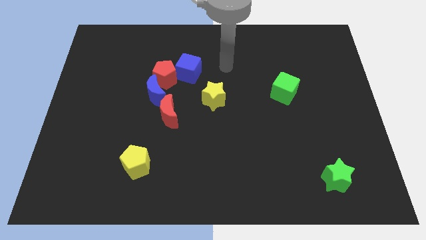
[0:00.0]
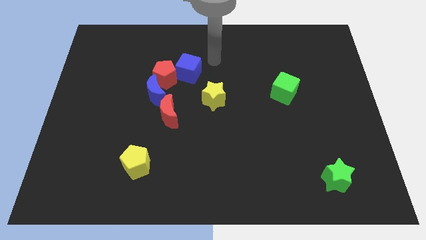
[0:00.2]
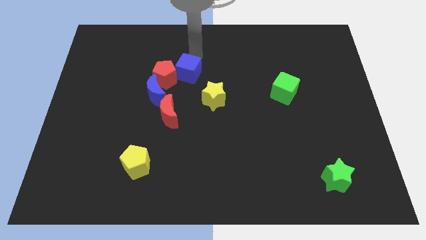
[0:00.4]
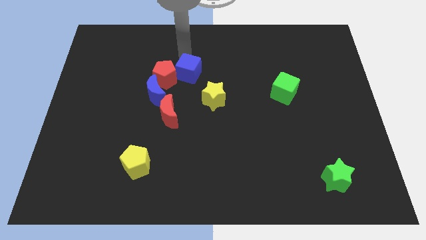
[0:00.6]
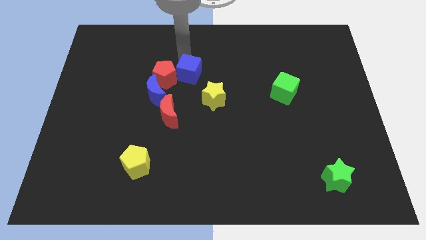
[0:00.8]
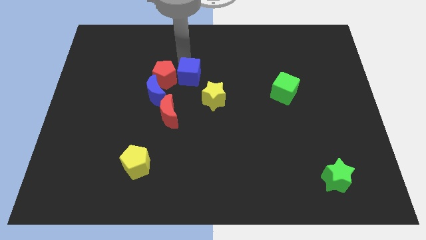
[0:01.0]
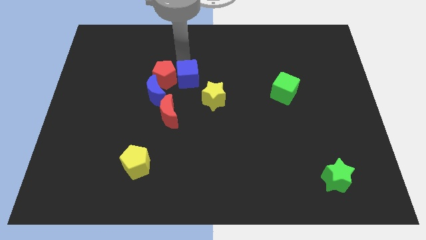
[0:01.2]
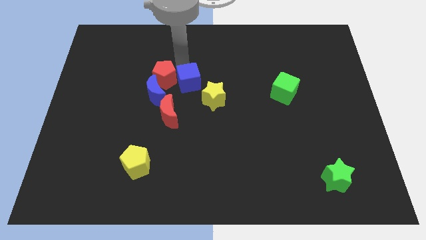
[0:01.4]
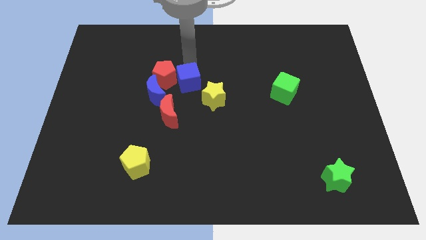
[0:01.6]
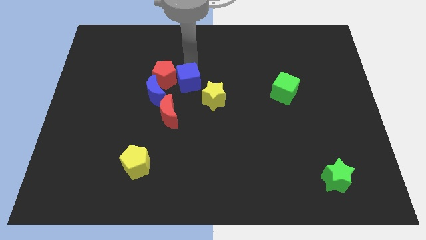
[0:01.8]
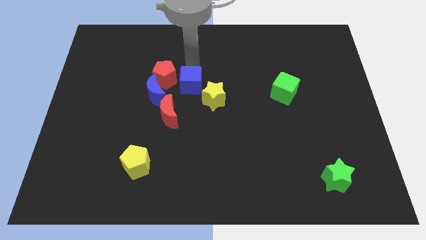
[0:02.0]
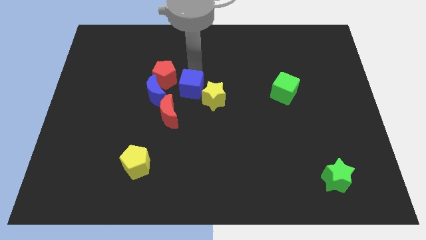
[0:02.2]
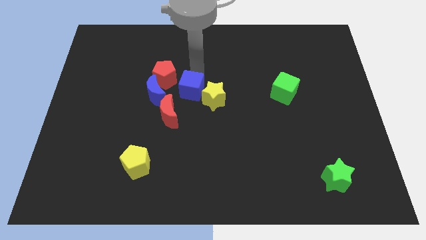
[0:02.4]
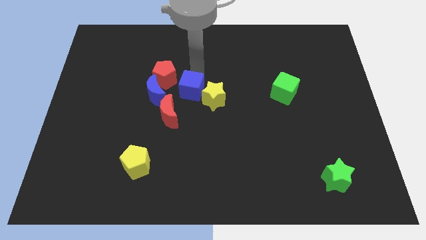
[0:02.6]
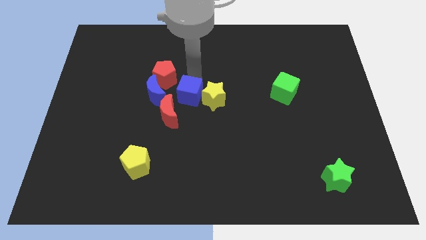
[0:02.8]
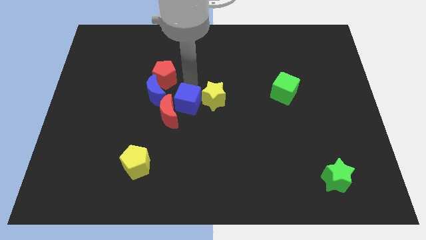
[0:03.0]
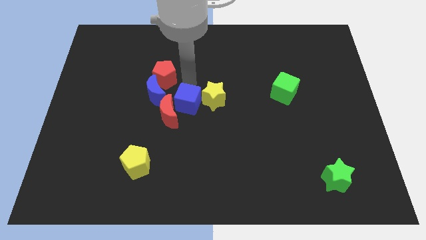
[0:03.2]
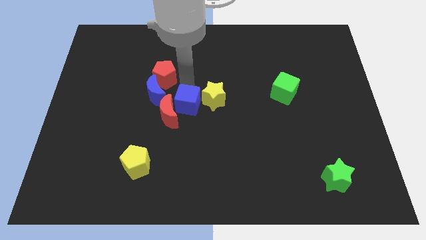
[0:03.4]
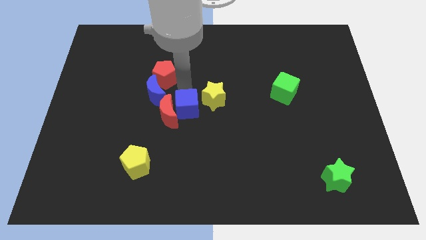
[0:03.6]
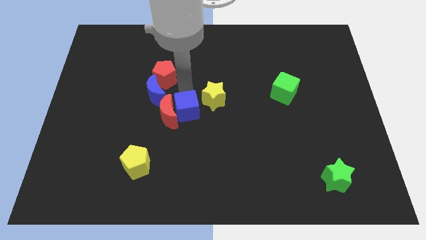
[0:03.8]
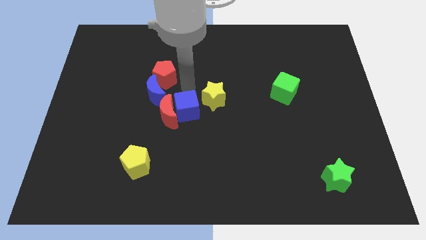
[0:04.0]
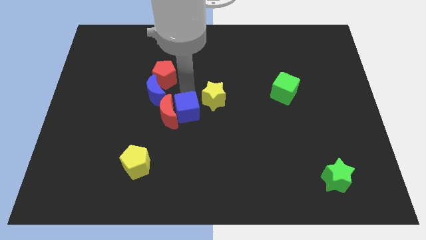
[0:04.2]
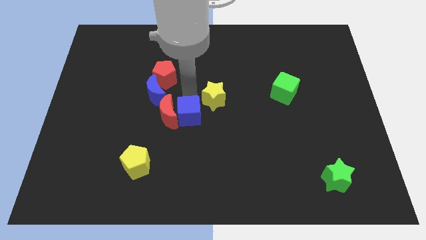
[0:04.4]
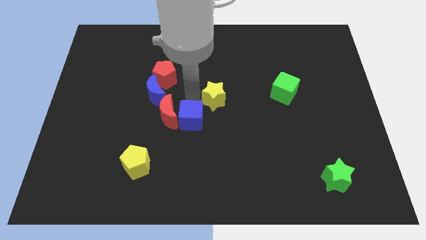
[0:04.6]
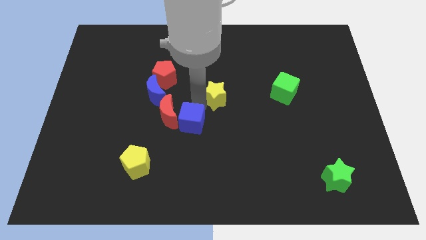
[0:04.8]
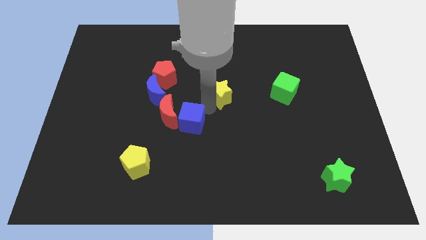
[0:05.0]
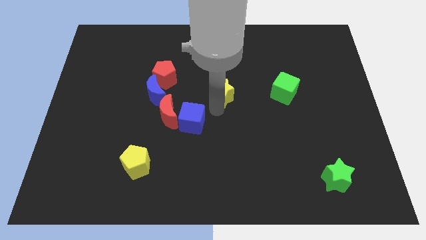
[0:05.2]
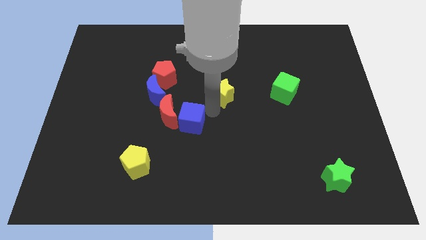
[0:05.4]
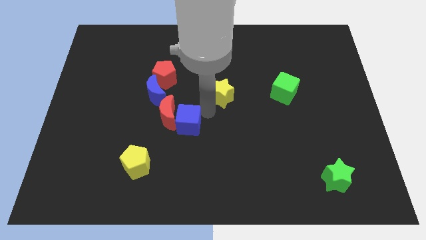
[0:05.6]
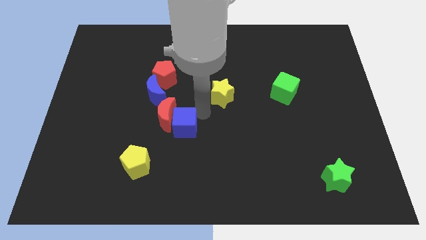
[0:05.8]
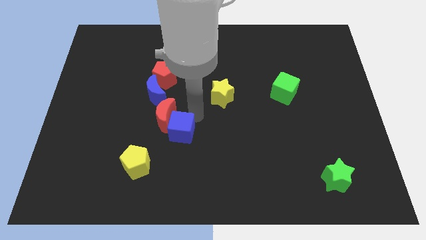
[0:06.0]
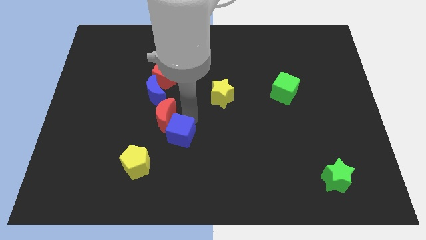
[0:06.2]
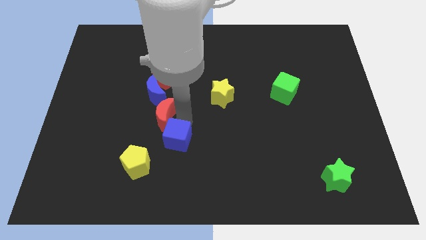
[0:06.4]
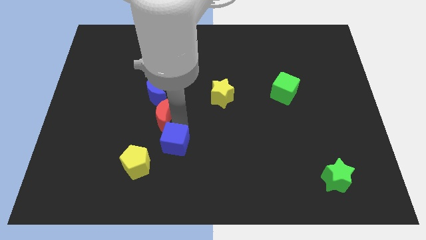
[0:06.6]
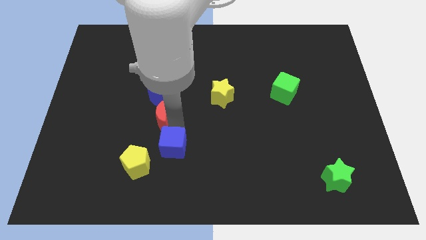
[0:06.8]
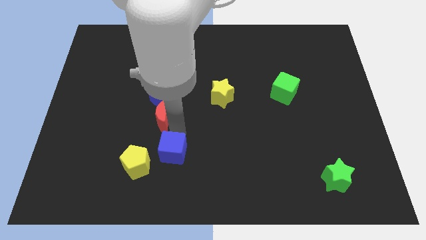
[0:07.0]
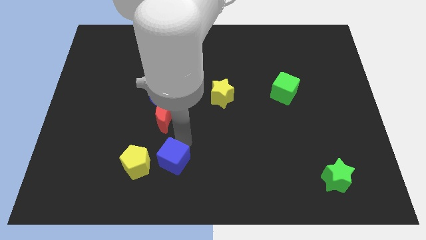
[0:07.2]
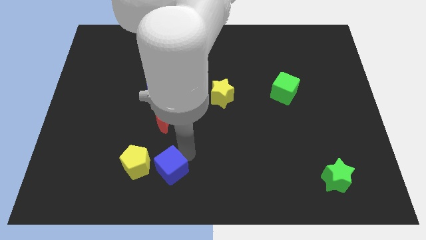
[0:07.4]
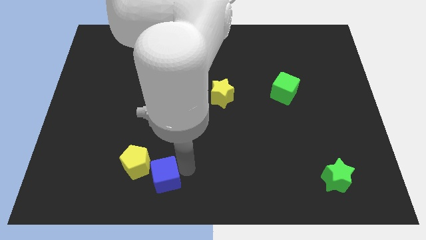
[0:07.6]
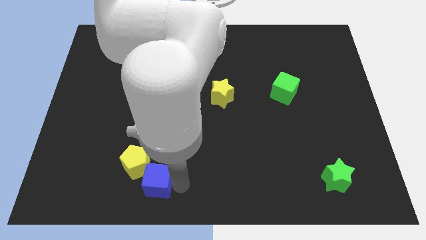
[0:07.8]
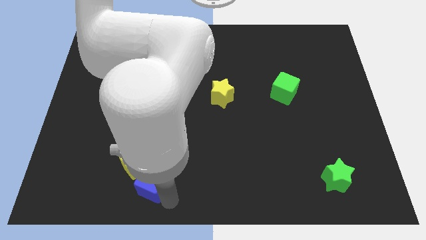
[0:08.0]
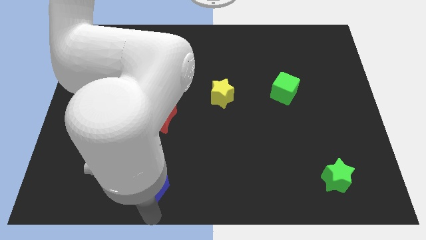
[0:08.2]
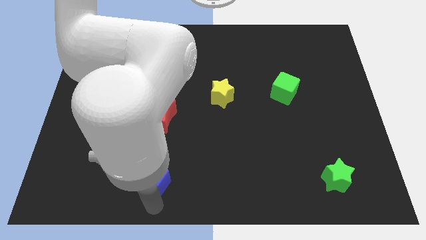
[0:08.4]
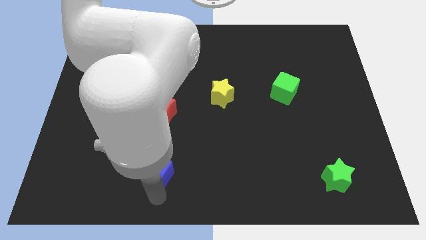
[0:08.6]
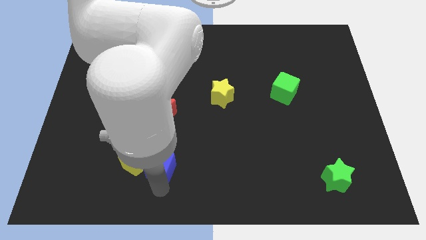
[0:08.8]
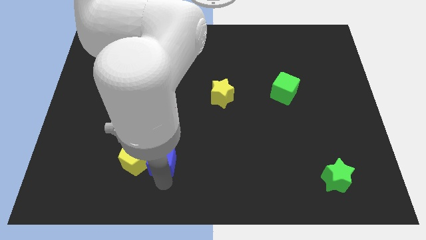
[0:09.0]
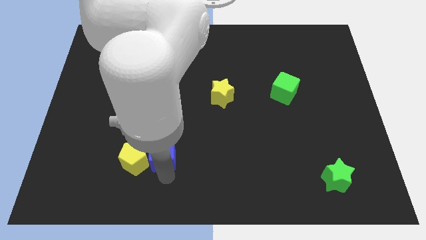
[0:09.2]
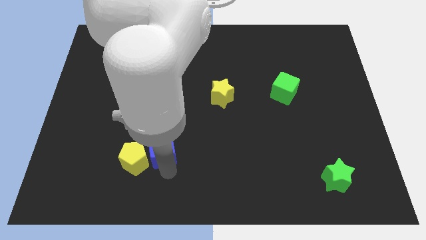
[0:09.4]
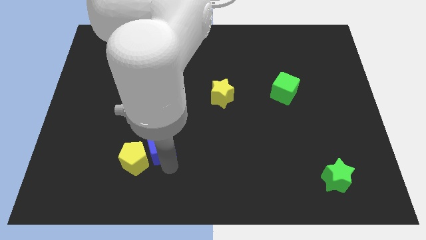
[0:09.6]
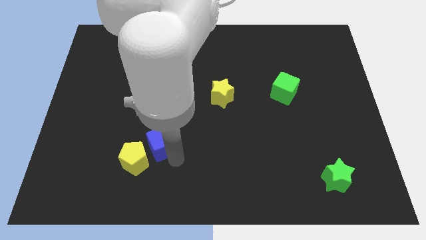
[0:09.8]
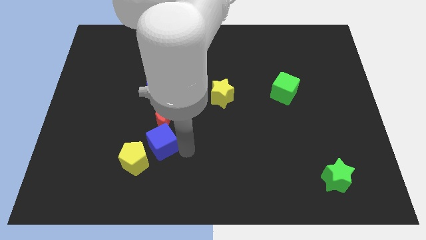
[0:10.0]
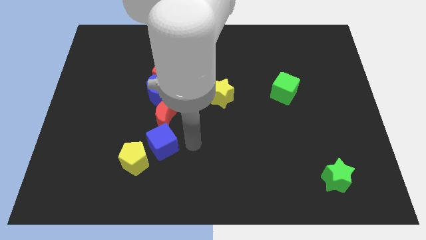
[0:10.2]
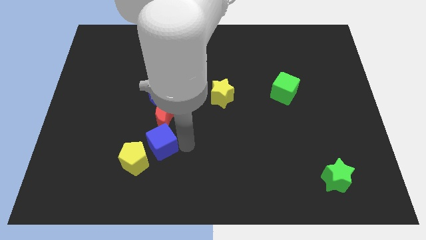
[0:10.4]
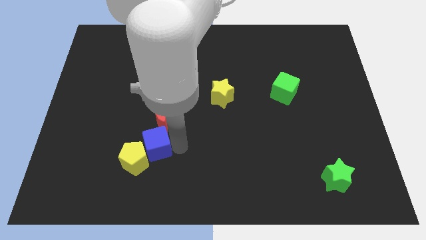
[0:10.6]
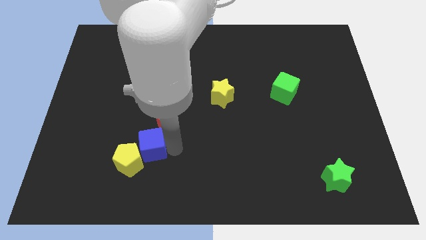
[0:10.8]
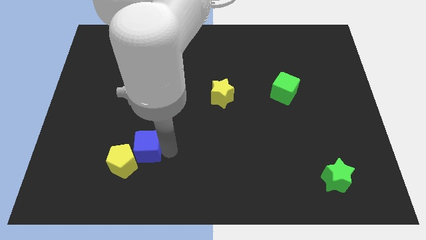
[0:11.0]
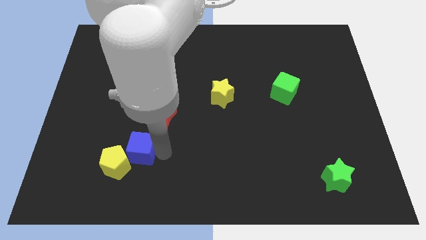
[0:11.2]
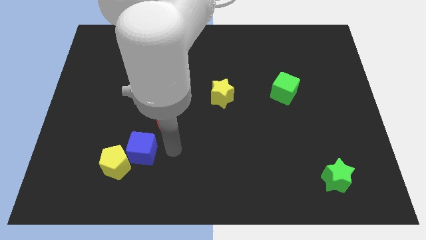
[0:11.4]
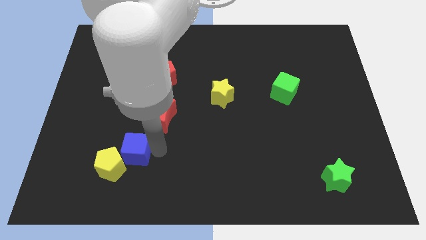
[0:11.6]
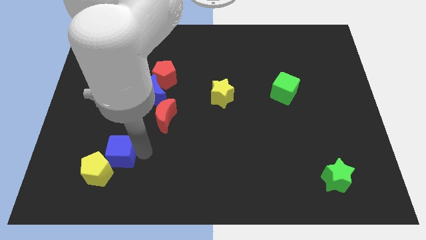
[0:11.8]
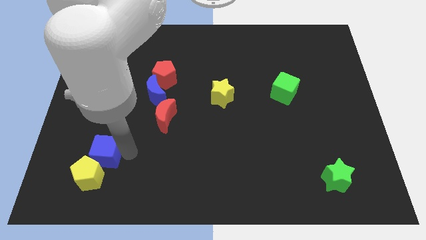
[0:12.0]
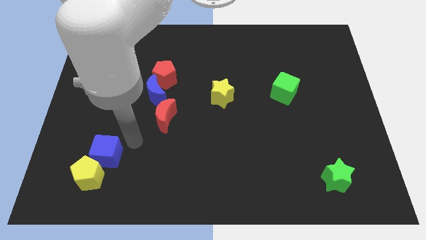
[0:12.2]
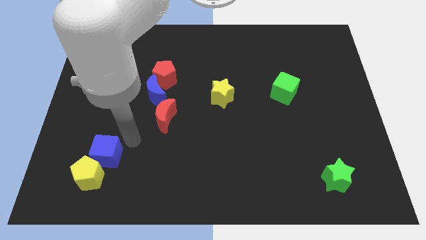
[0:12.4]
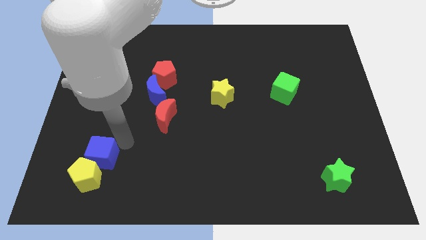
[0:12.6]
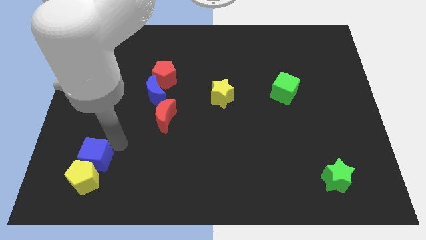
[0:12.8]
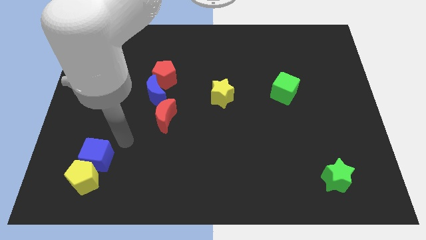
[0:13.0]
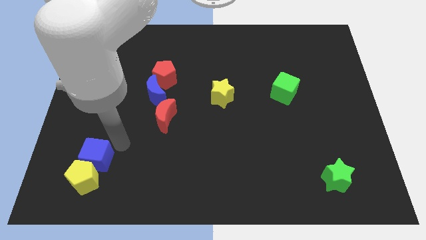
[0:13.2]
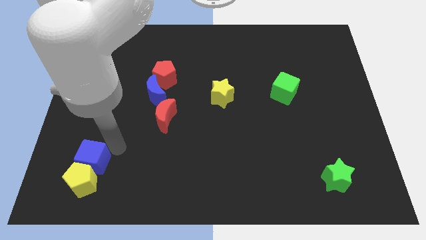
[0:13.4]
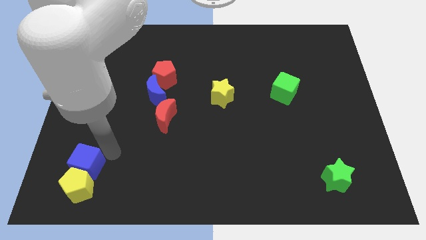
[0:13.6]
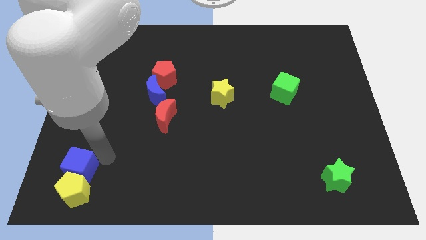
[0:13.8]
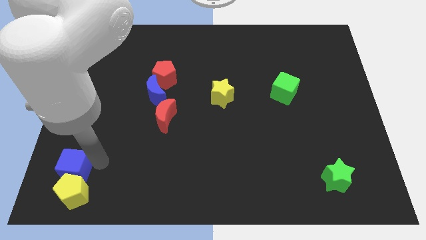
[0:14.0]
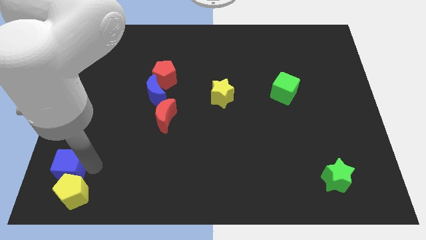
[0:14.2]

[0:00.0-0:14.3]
move the blue cube to the bottom left of the board
